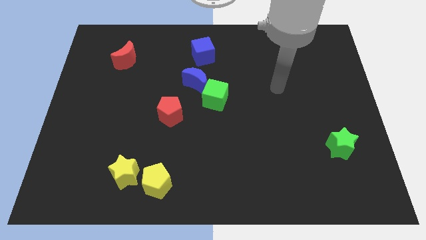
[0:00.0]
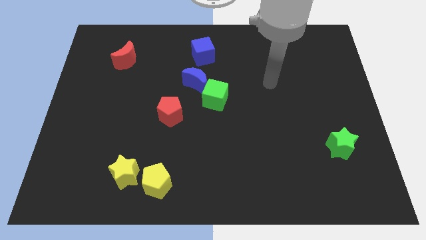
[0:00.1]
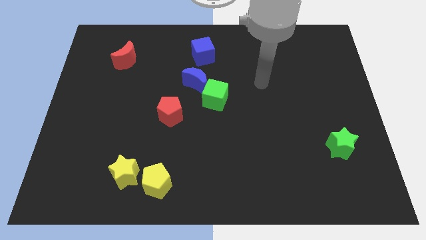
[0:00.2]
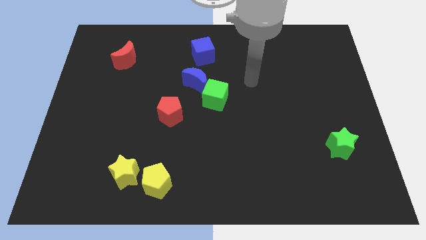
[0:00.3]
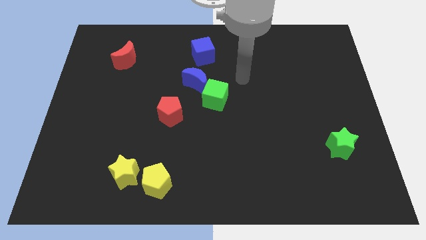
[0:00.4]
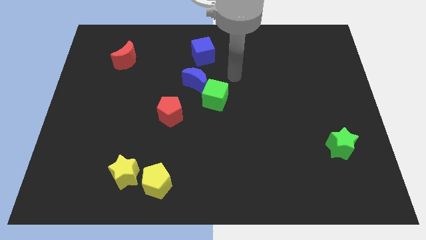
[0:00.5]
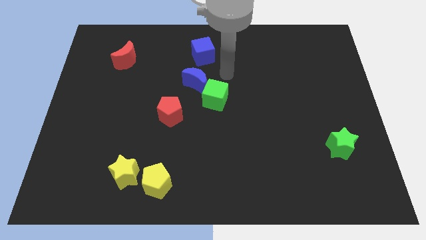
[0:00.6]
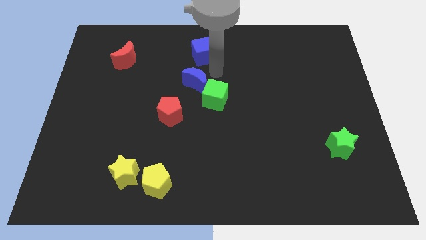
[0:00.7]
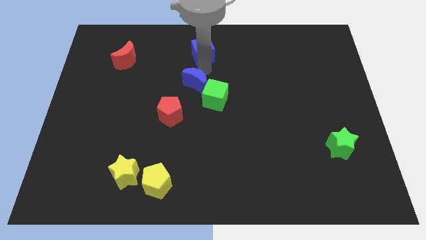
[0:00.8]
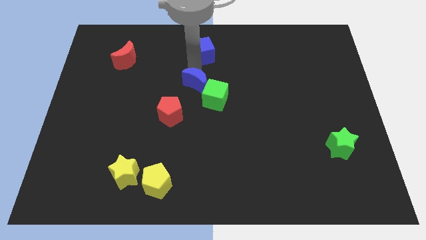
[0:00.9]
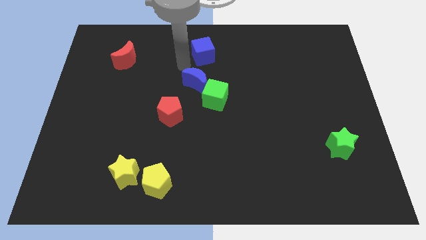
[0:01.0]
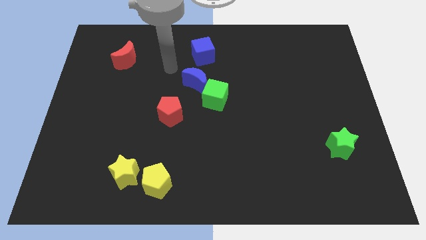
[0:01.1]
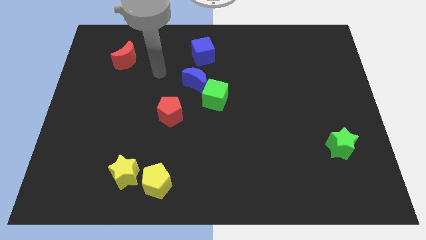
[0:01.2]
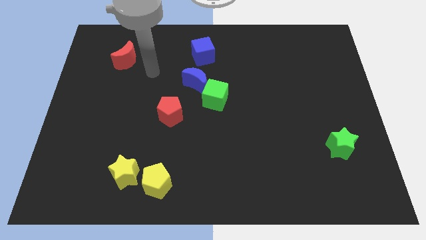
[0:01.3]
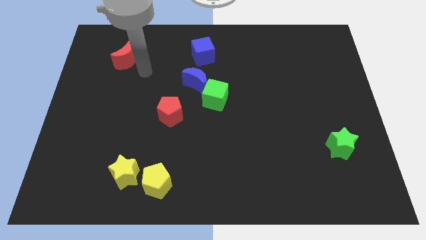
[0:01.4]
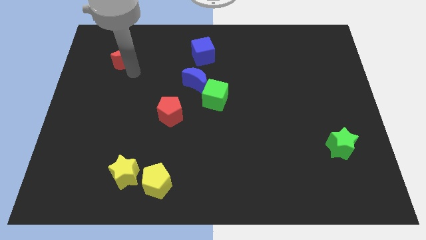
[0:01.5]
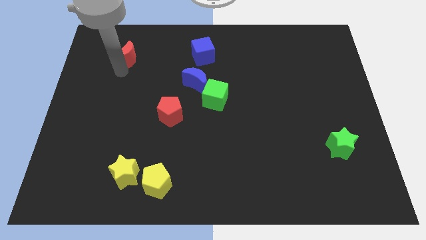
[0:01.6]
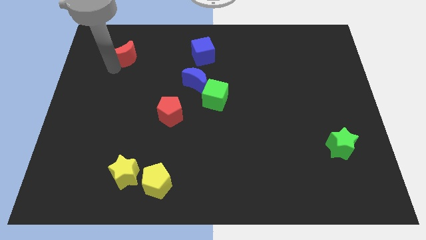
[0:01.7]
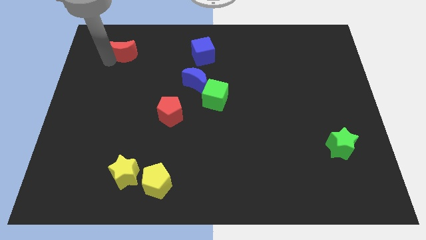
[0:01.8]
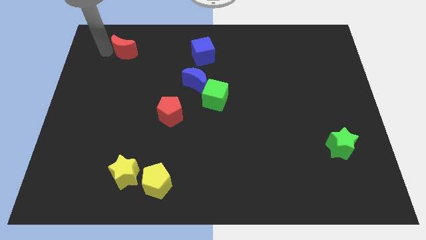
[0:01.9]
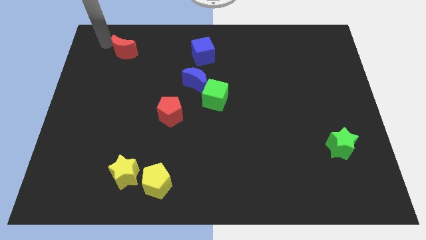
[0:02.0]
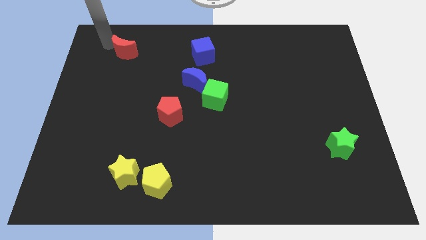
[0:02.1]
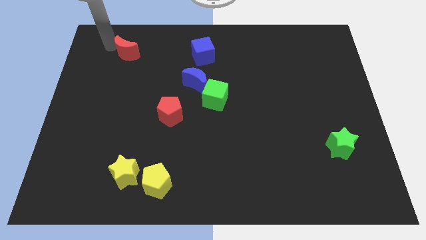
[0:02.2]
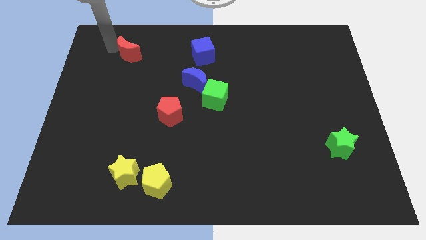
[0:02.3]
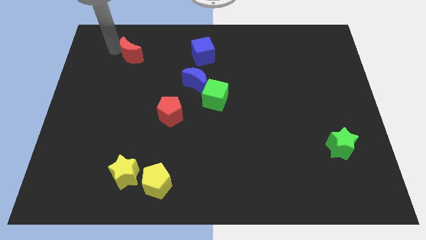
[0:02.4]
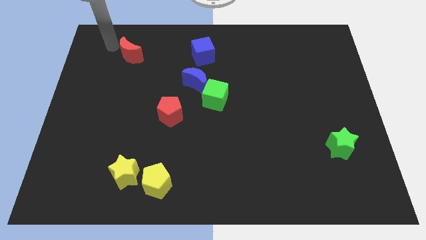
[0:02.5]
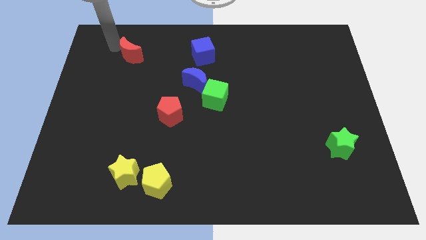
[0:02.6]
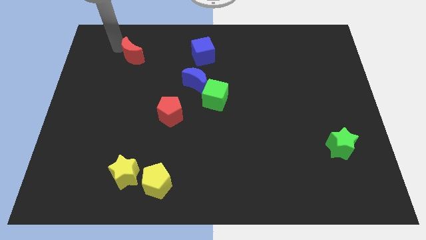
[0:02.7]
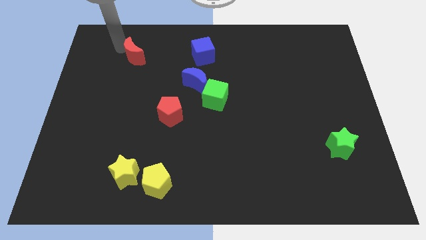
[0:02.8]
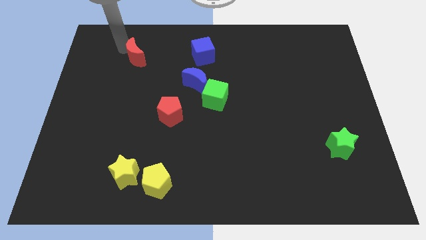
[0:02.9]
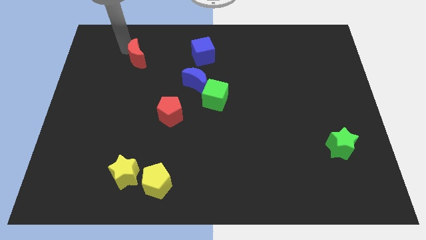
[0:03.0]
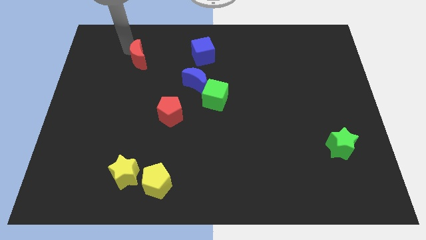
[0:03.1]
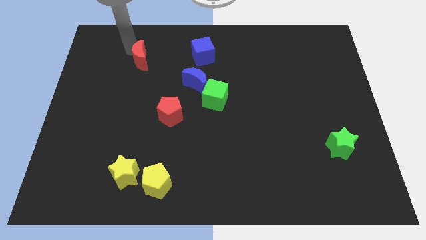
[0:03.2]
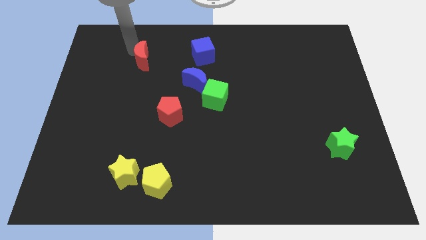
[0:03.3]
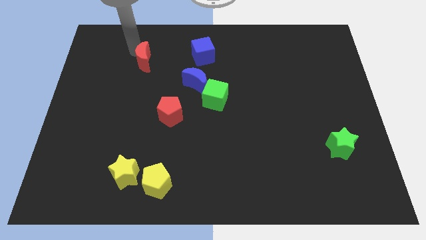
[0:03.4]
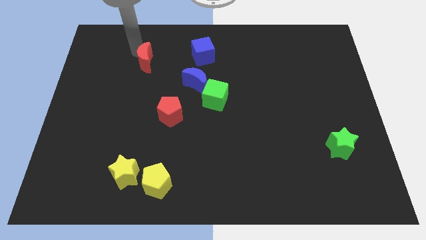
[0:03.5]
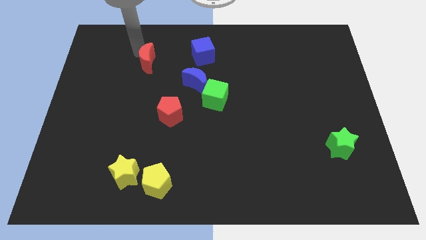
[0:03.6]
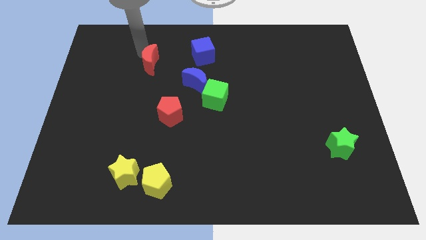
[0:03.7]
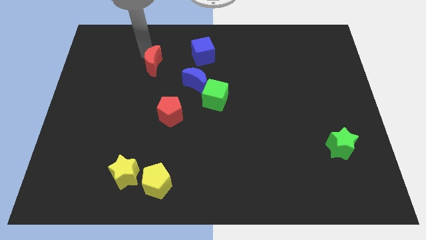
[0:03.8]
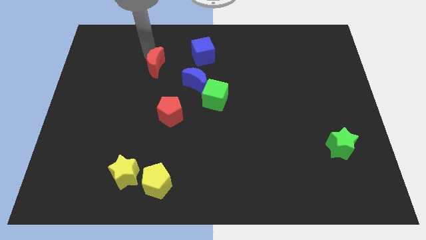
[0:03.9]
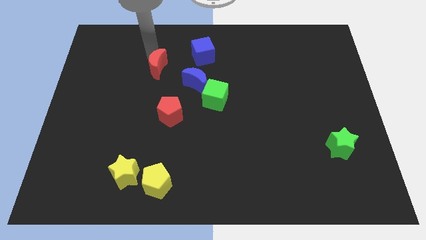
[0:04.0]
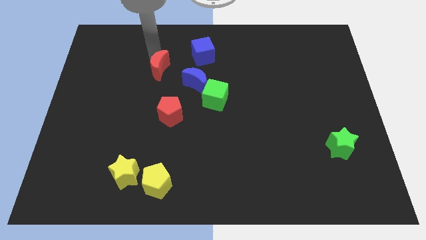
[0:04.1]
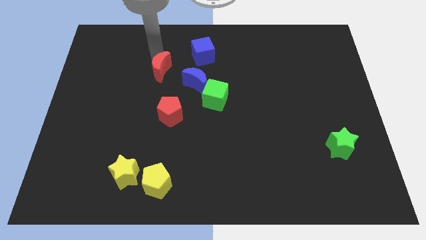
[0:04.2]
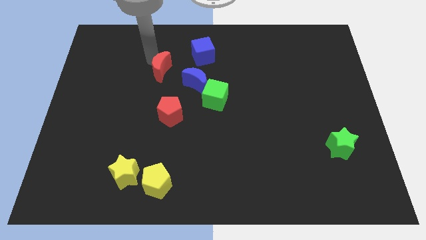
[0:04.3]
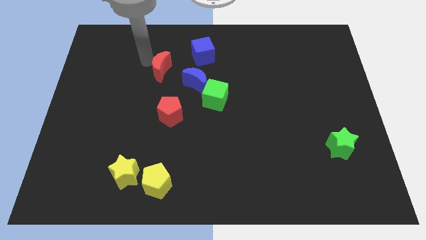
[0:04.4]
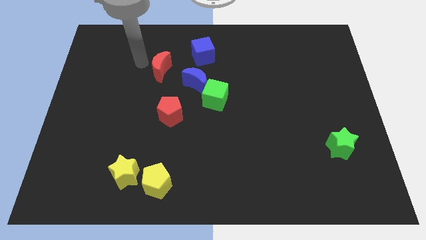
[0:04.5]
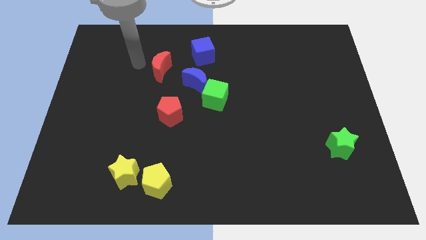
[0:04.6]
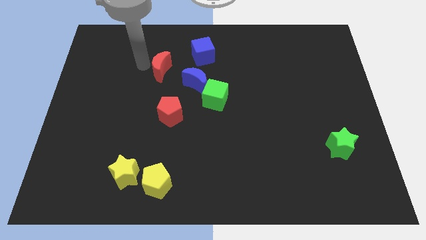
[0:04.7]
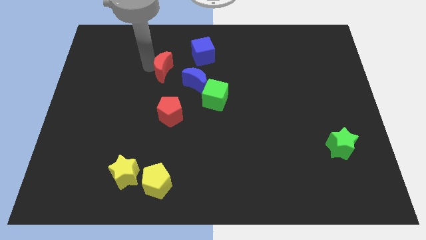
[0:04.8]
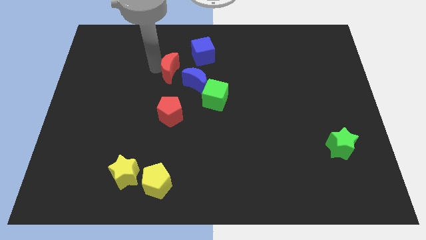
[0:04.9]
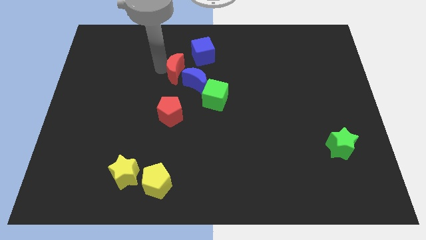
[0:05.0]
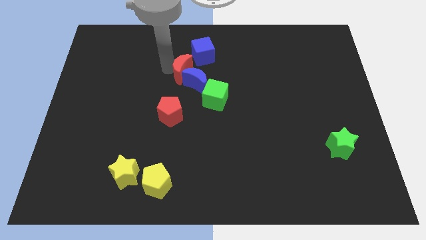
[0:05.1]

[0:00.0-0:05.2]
push the red moon diagonally up and to the left of the green cube

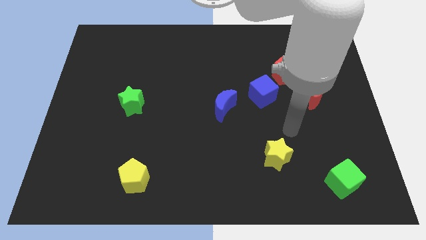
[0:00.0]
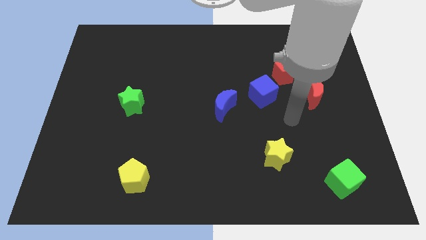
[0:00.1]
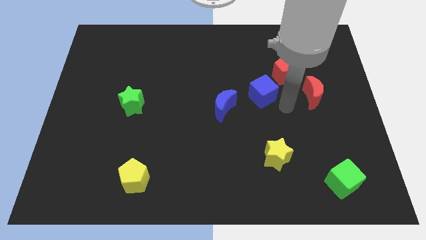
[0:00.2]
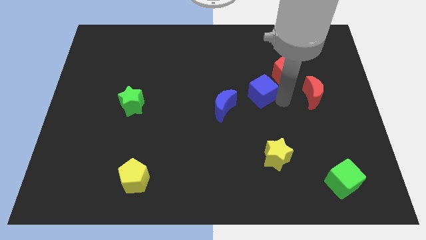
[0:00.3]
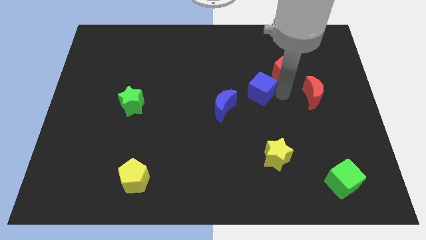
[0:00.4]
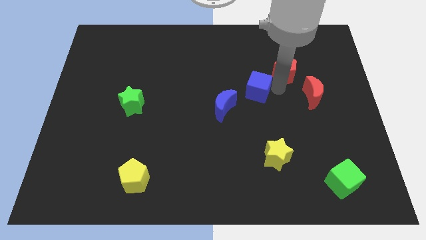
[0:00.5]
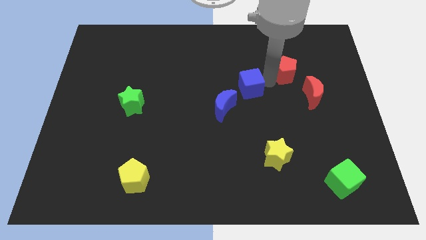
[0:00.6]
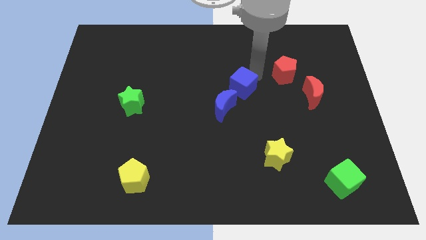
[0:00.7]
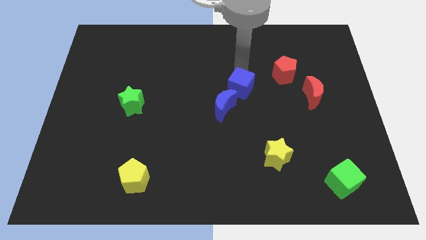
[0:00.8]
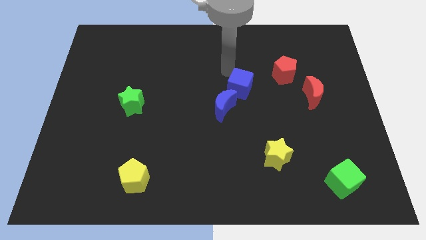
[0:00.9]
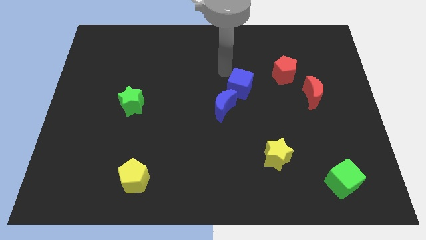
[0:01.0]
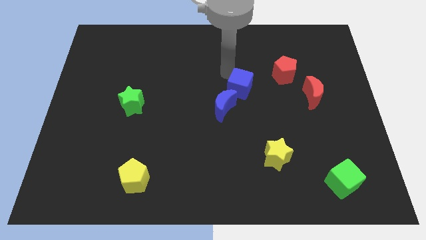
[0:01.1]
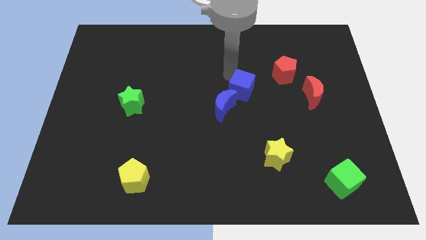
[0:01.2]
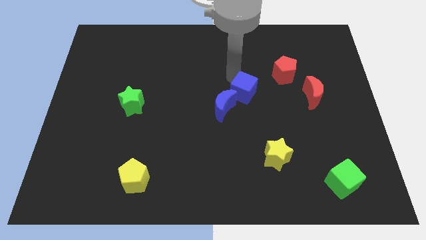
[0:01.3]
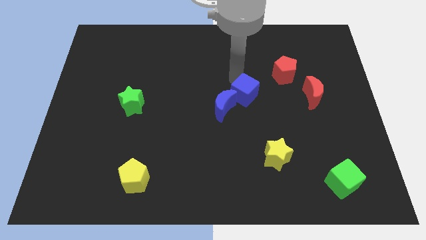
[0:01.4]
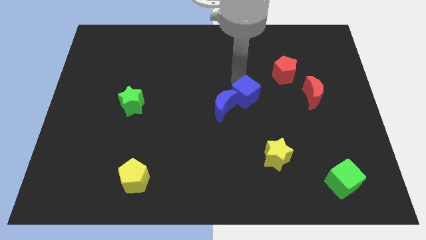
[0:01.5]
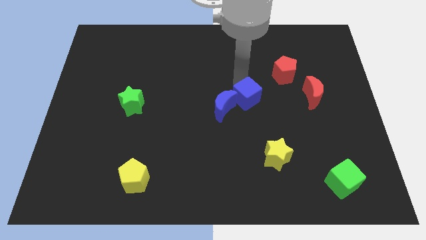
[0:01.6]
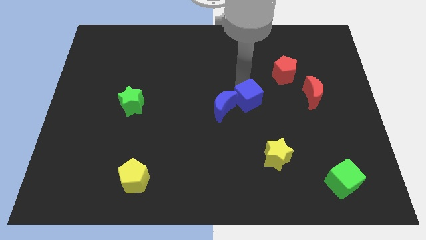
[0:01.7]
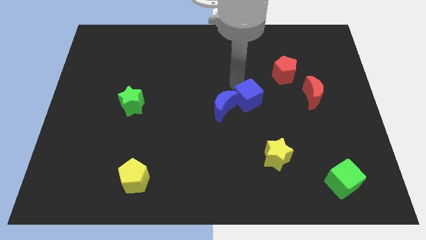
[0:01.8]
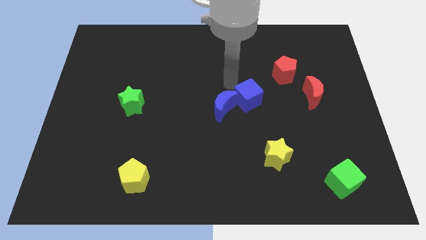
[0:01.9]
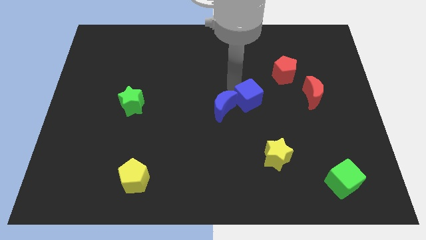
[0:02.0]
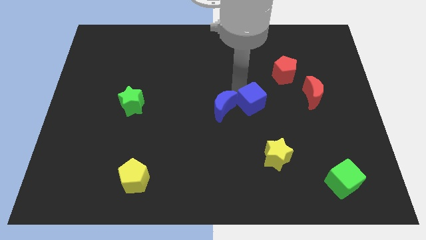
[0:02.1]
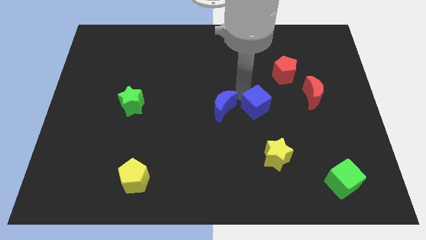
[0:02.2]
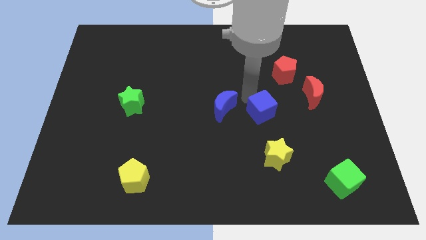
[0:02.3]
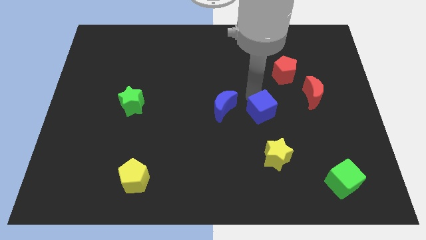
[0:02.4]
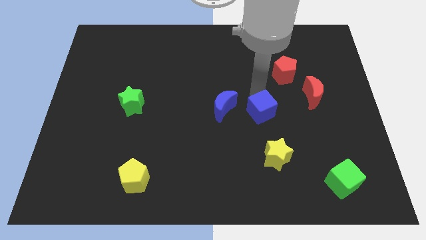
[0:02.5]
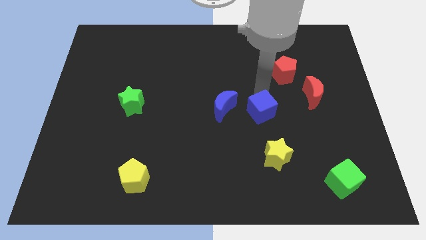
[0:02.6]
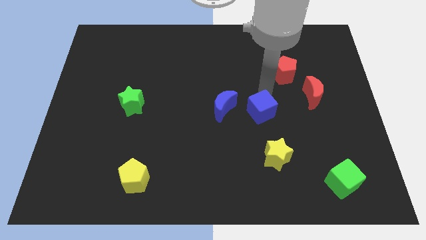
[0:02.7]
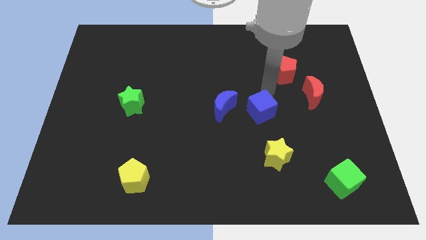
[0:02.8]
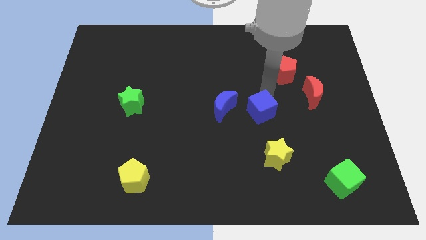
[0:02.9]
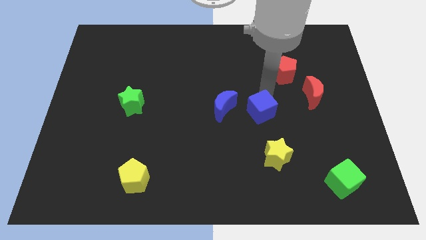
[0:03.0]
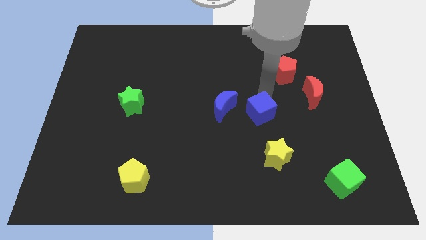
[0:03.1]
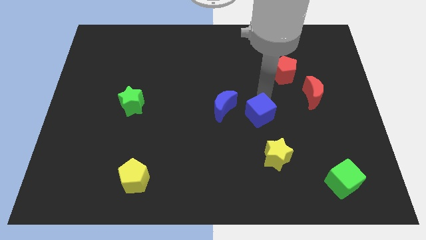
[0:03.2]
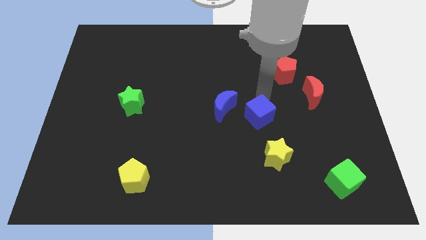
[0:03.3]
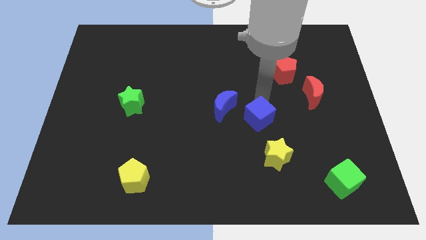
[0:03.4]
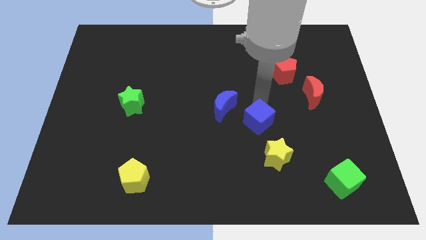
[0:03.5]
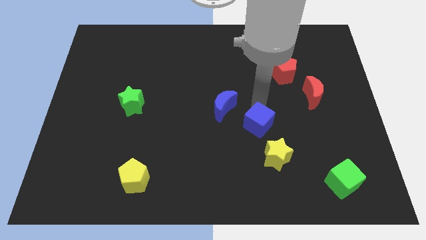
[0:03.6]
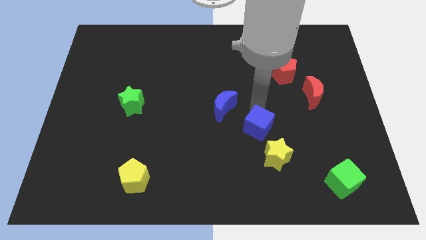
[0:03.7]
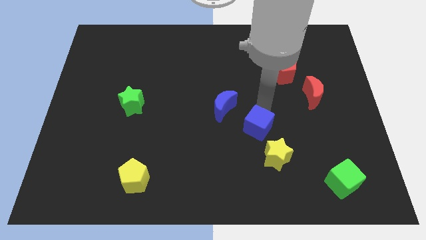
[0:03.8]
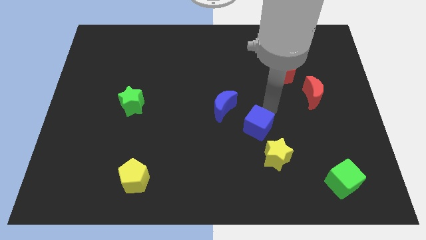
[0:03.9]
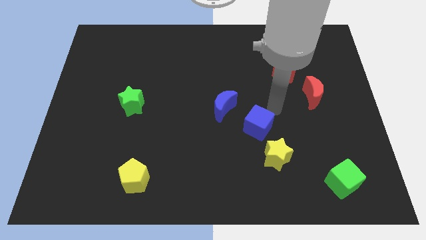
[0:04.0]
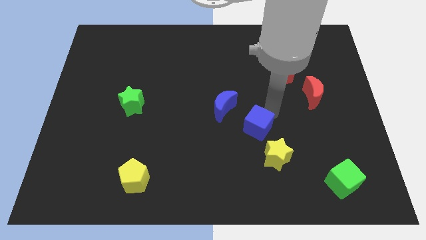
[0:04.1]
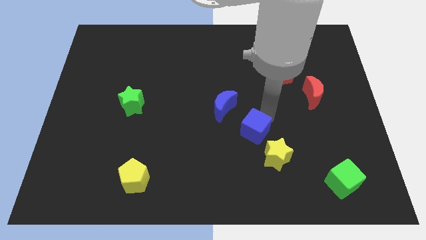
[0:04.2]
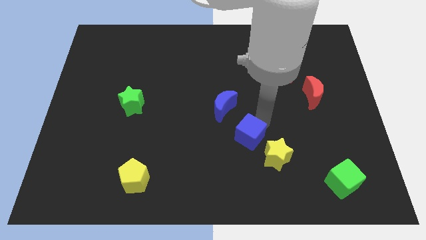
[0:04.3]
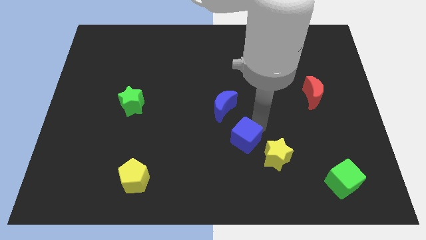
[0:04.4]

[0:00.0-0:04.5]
slide the blue cube to the left side of the yellow star
